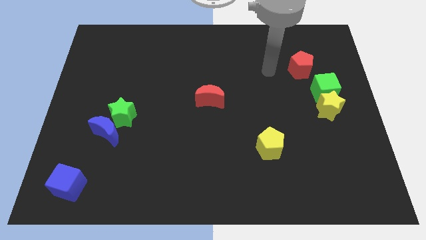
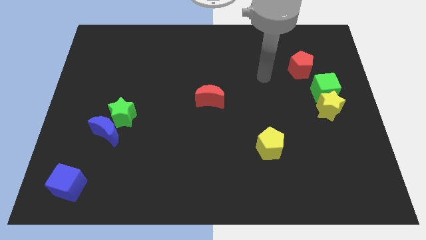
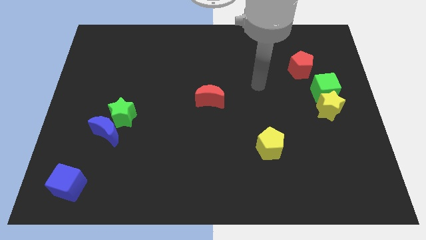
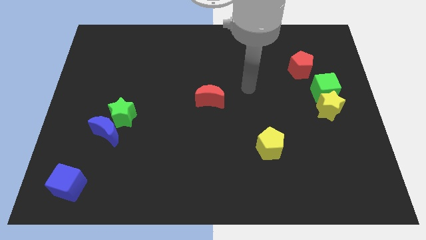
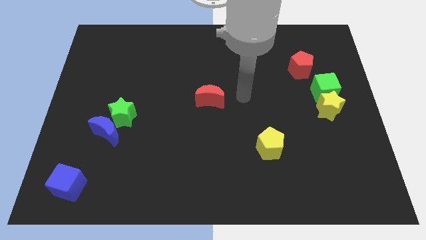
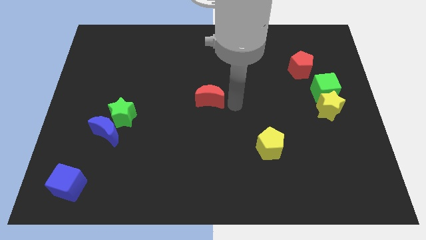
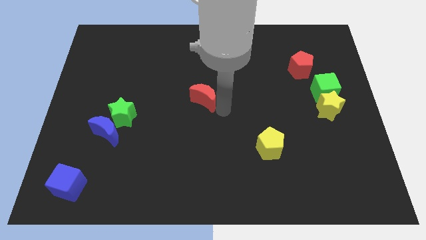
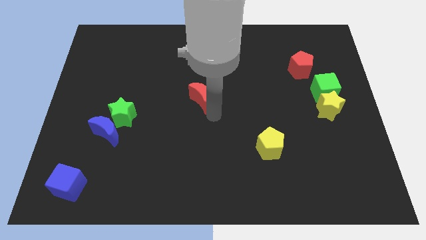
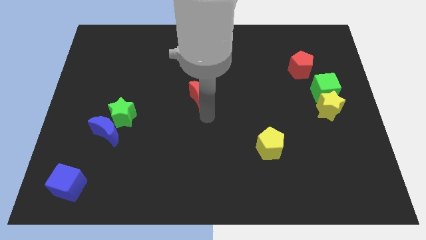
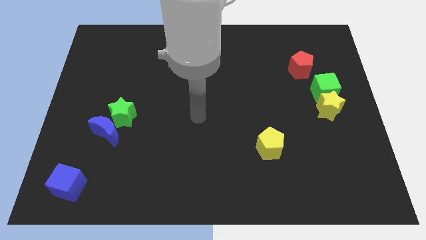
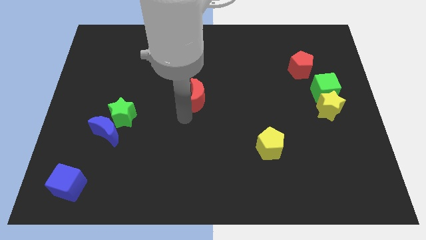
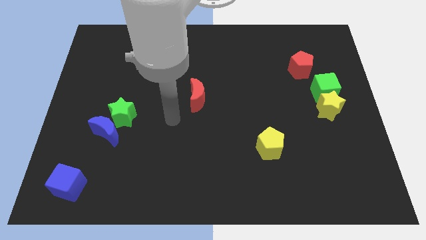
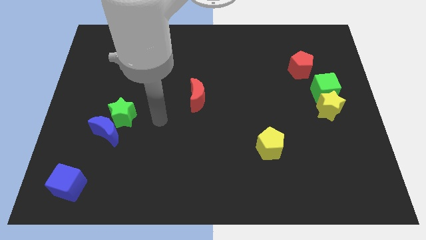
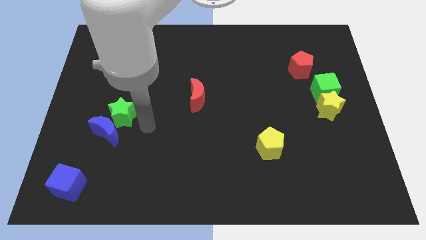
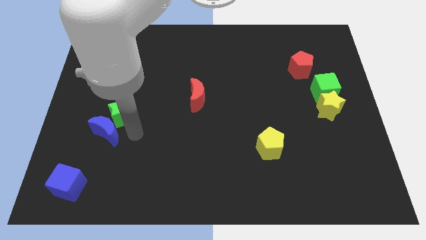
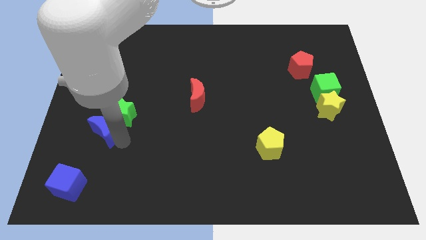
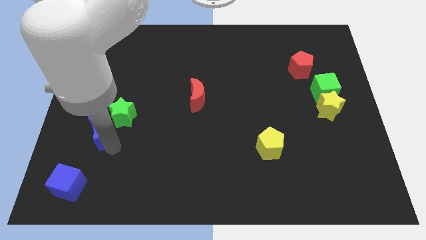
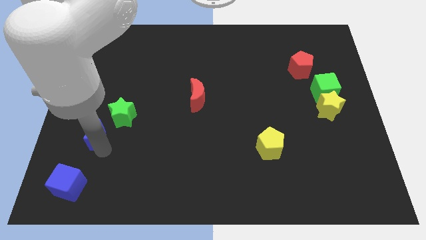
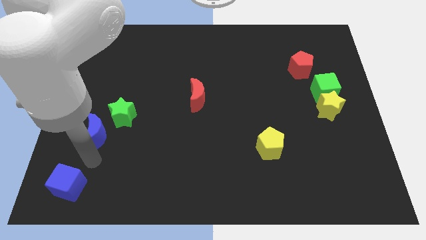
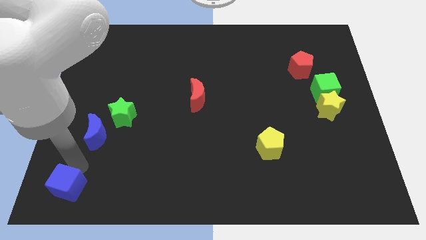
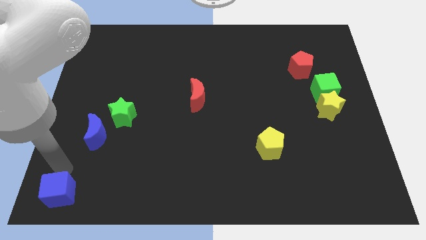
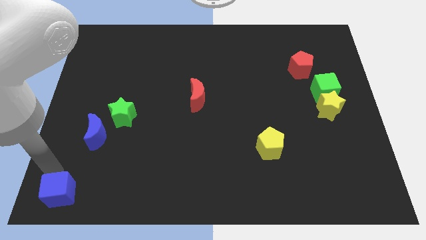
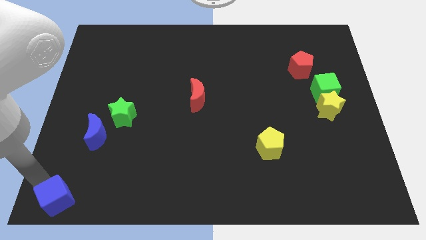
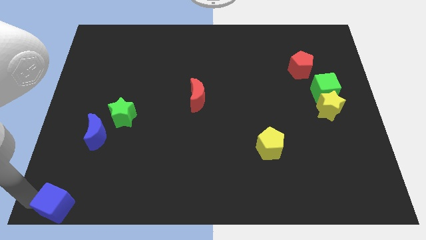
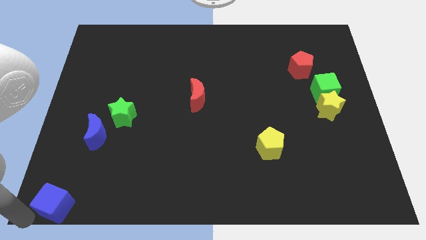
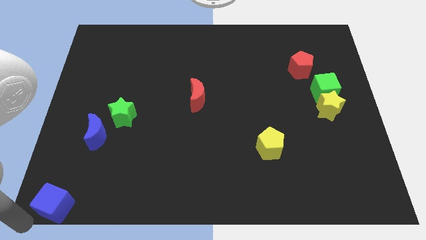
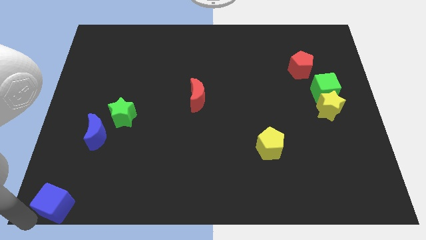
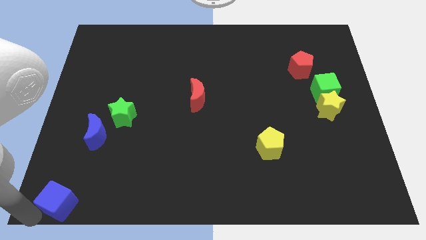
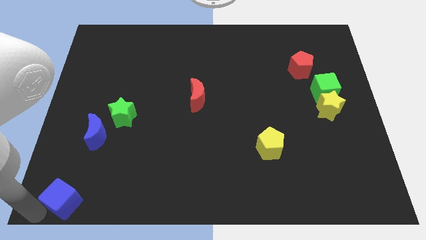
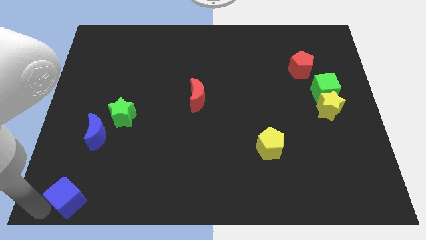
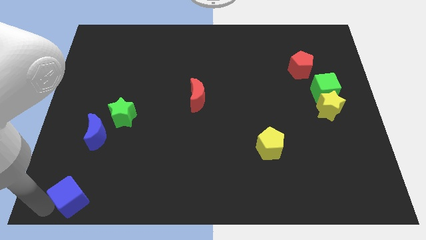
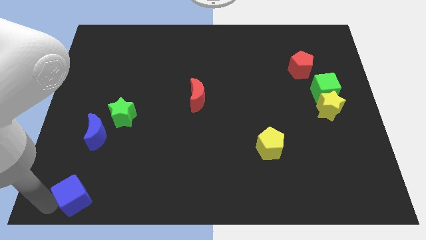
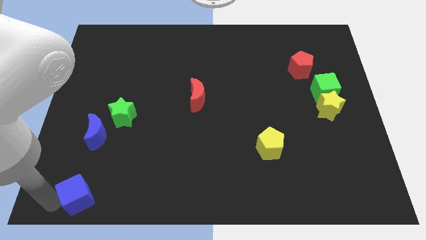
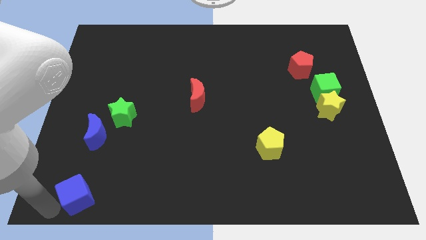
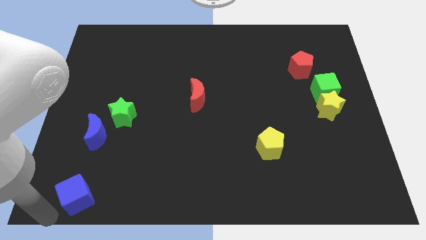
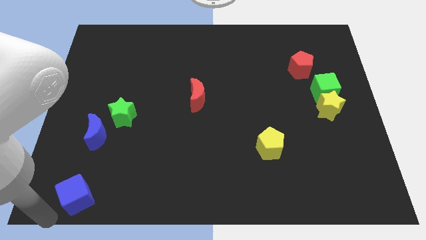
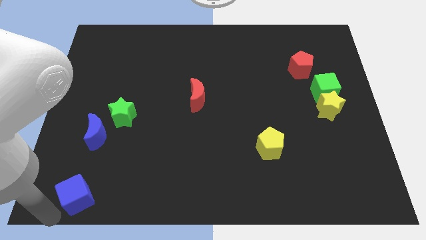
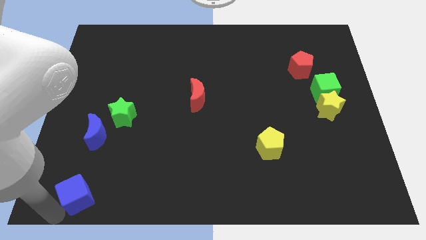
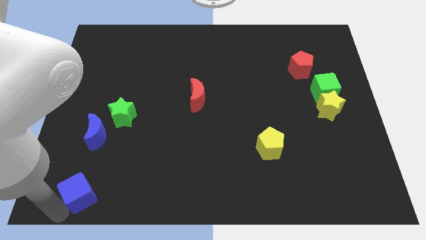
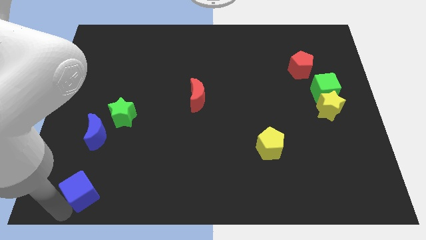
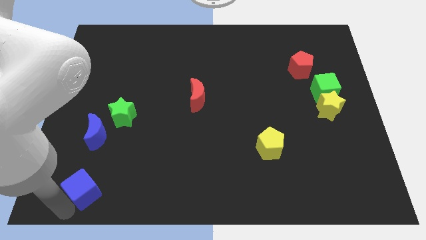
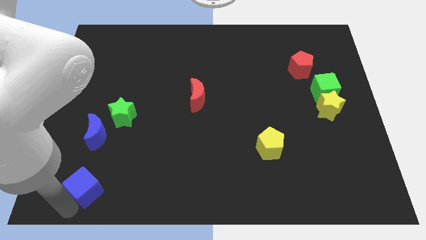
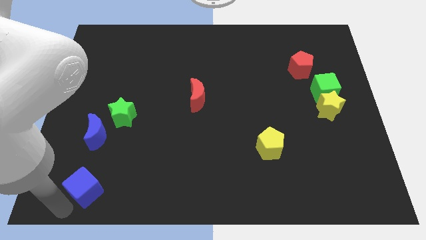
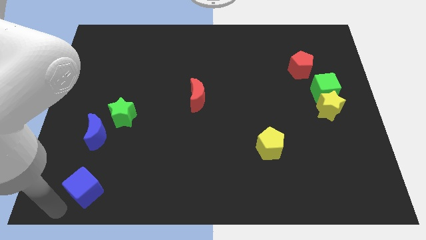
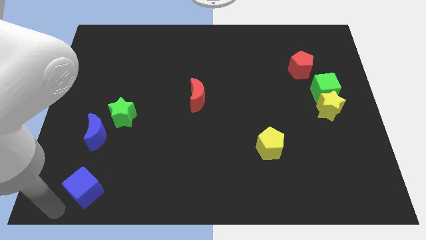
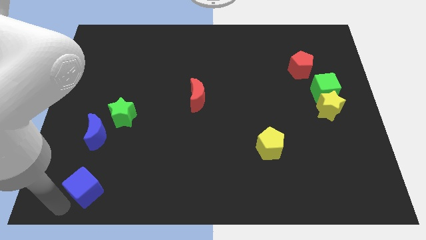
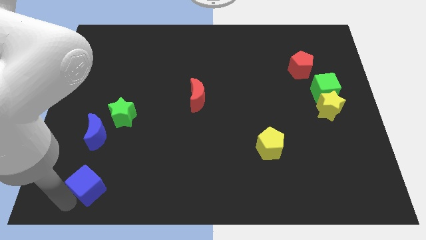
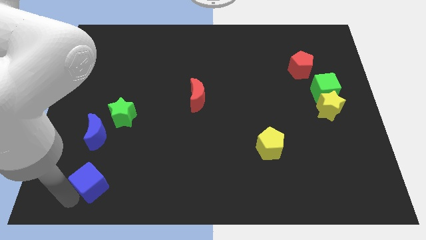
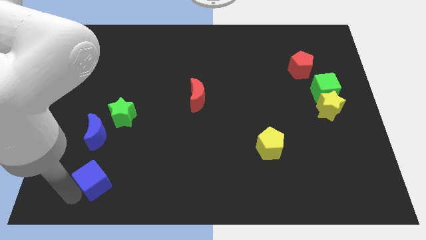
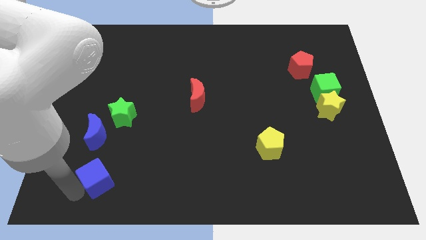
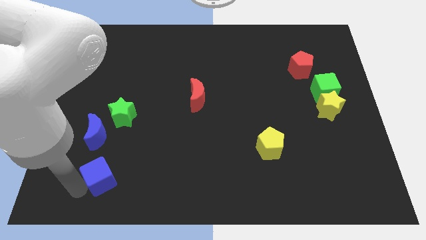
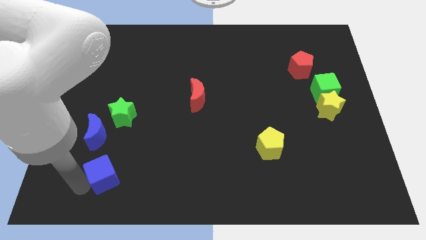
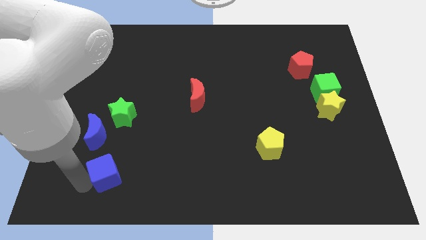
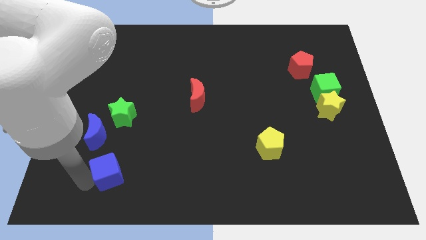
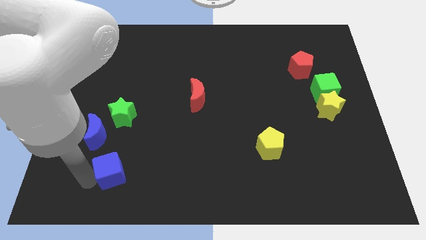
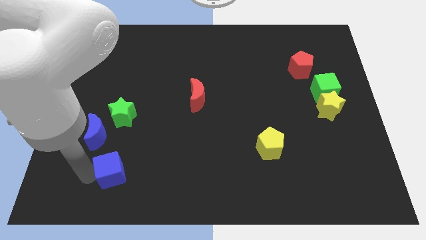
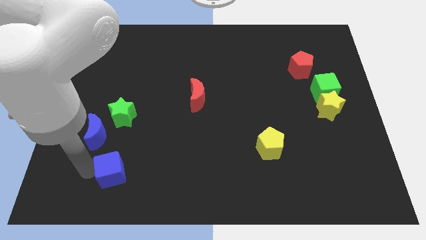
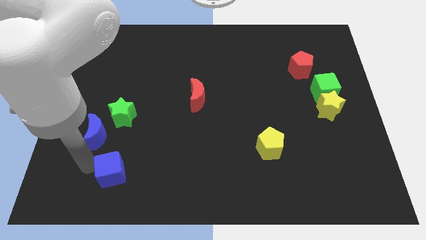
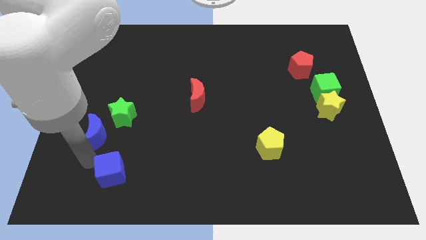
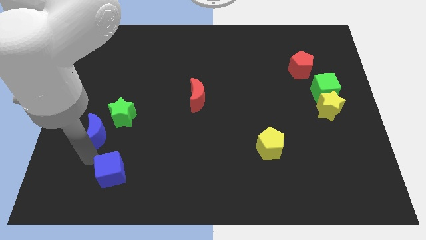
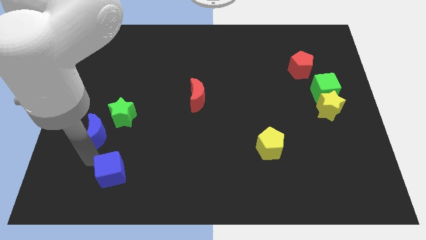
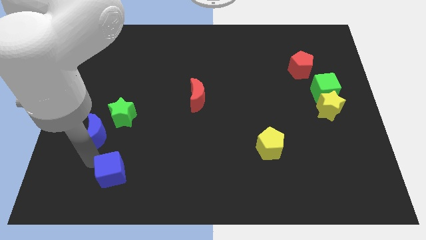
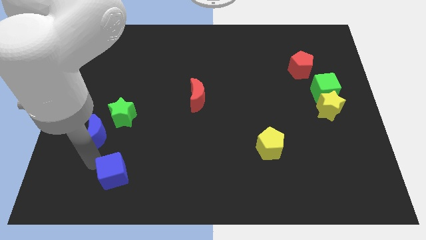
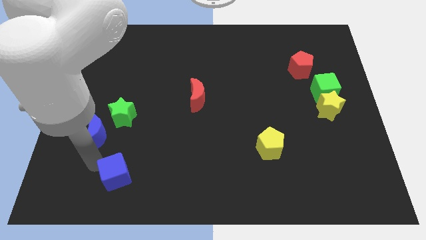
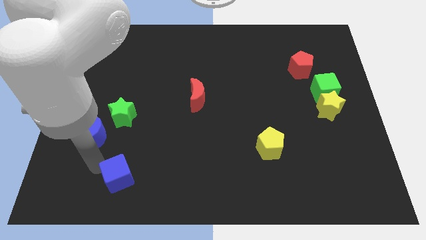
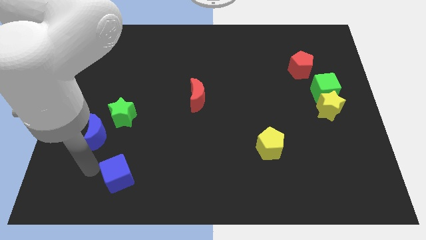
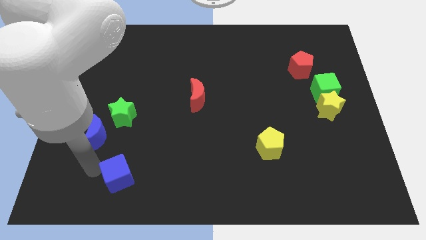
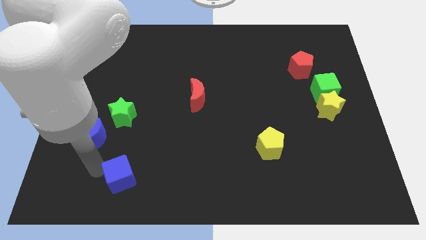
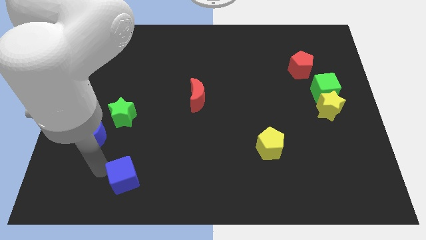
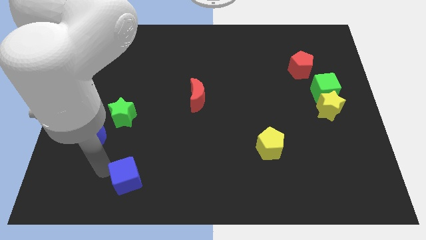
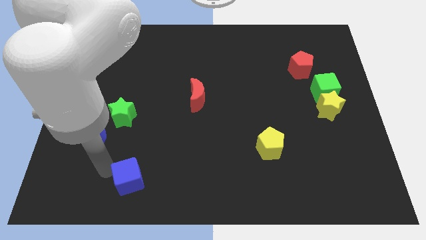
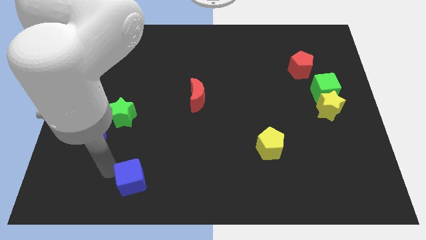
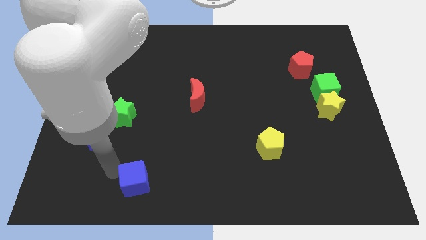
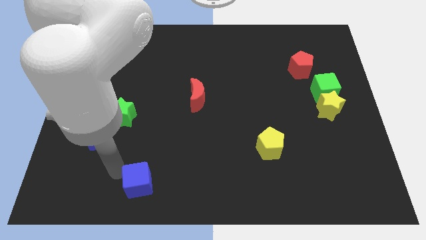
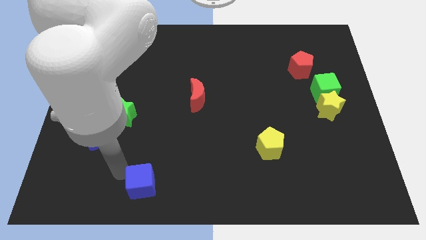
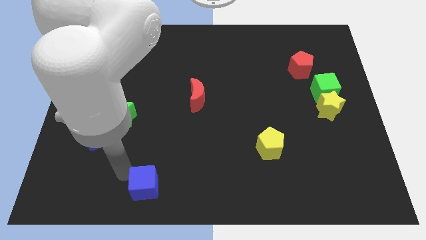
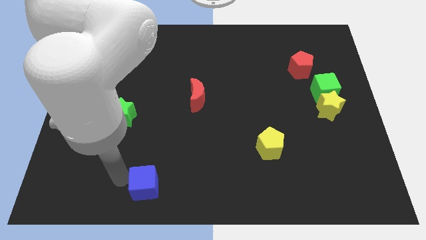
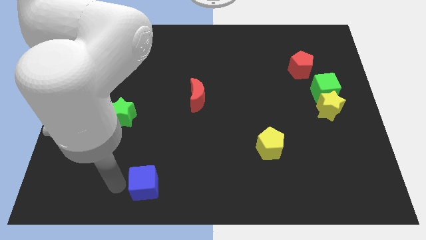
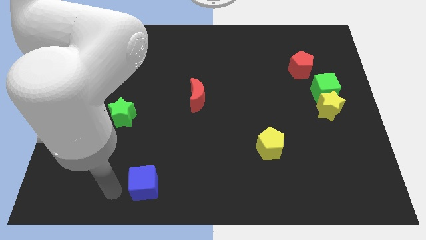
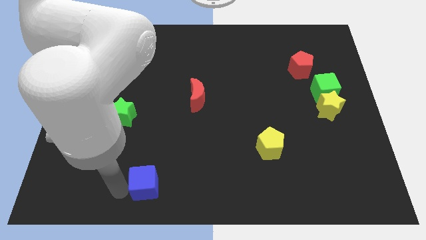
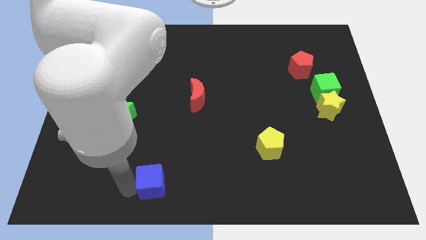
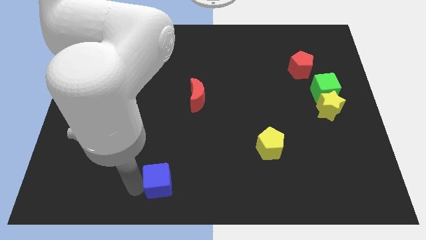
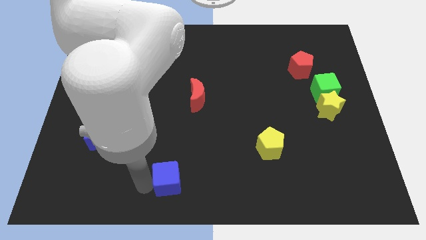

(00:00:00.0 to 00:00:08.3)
slide the blue cube to the right

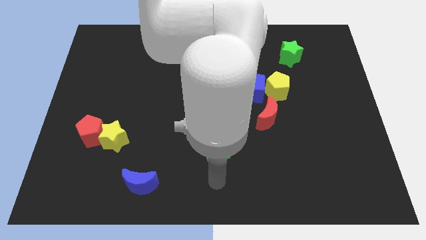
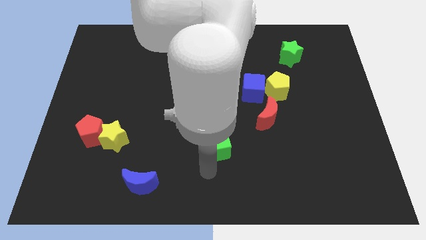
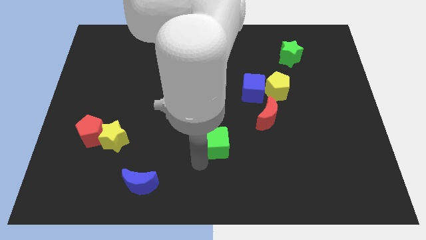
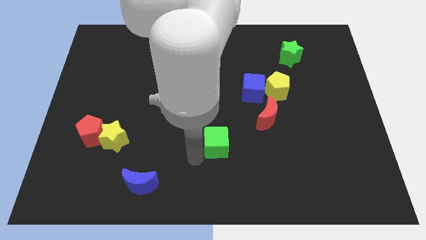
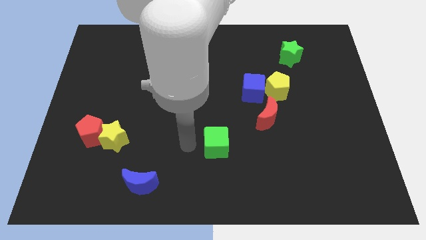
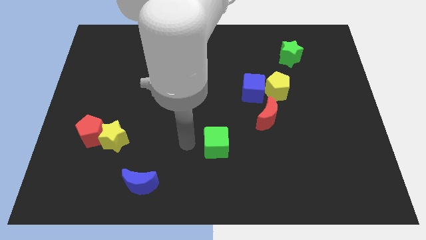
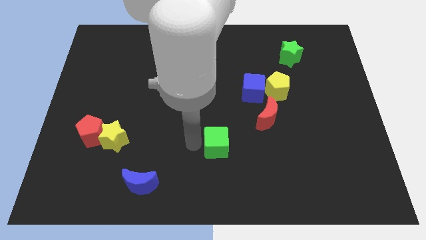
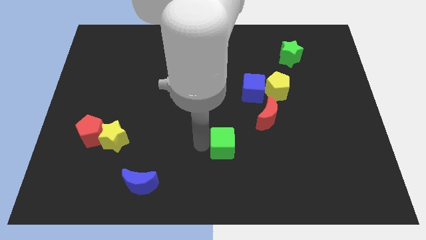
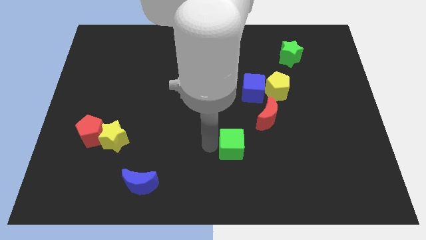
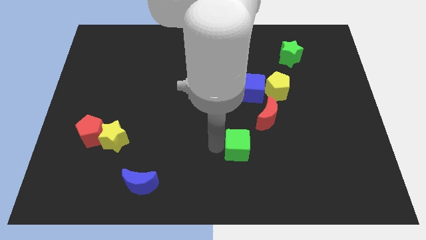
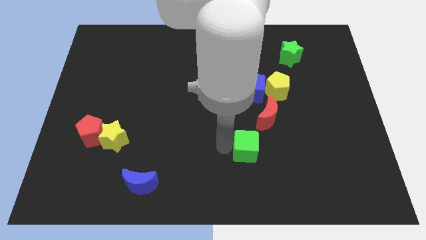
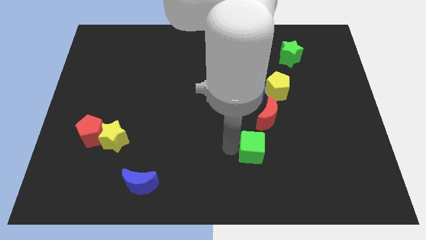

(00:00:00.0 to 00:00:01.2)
slightly slide the green cube to the right
